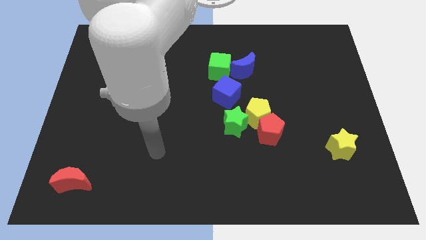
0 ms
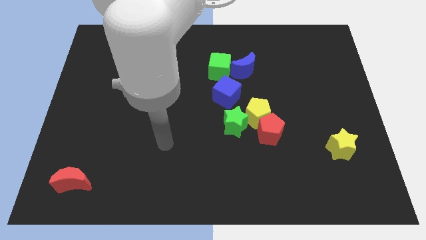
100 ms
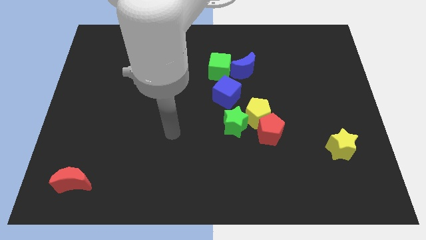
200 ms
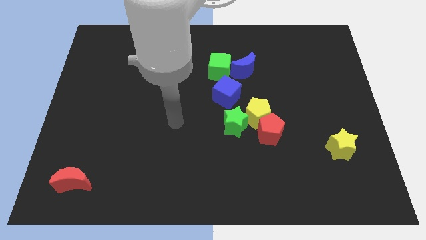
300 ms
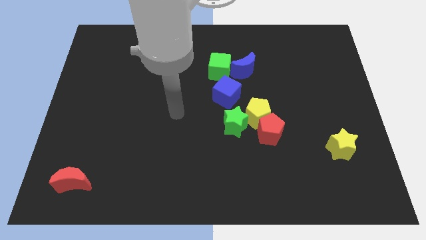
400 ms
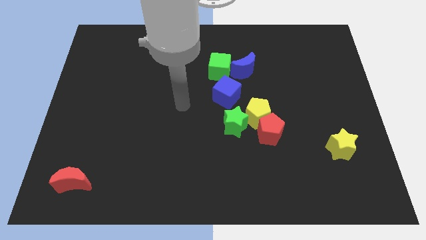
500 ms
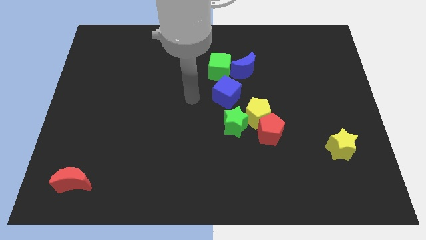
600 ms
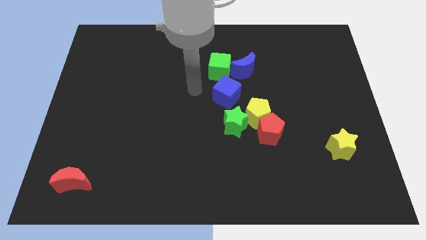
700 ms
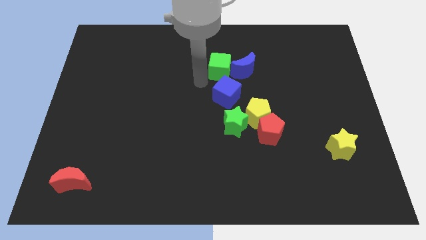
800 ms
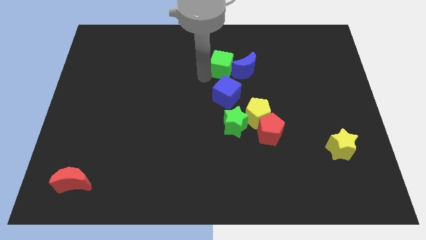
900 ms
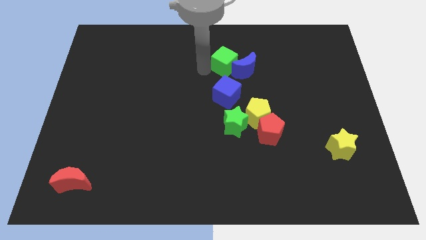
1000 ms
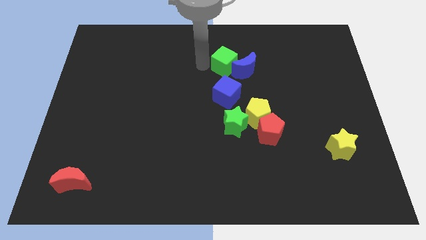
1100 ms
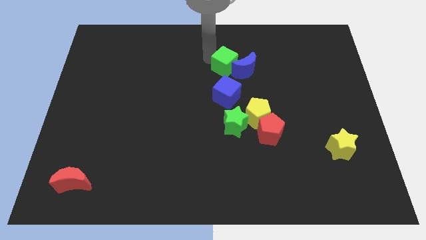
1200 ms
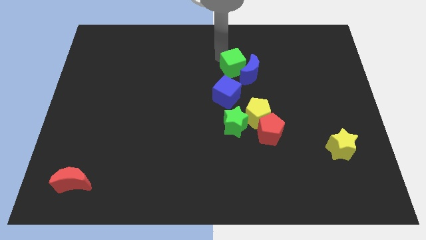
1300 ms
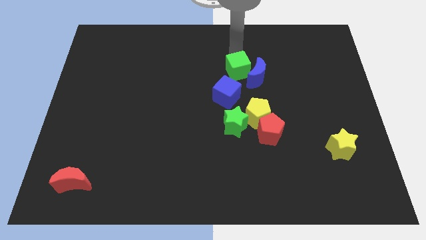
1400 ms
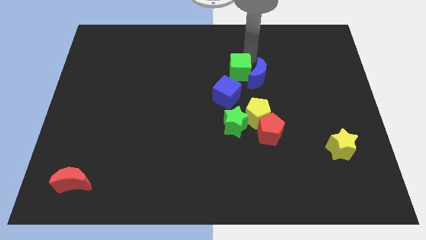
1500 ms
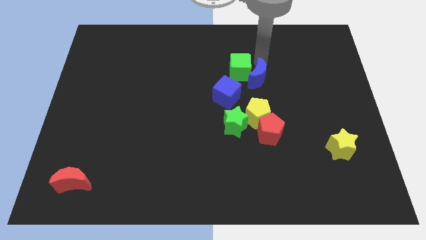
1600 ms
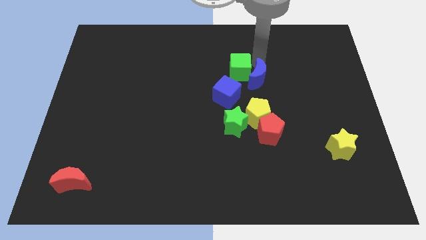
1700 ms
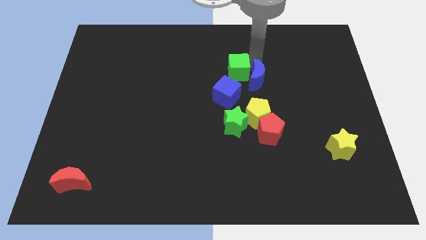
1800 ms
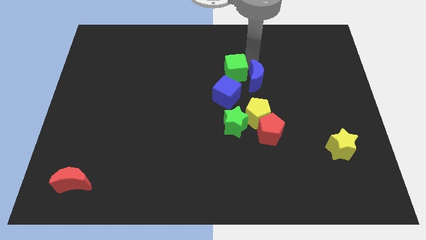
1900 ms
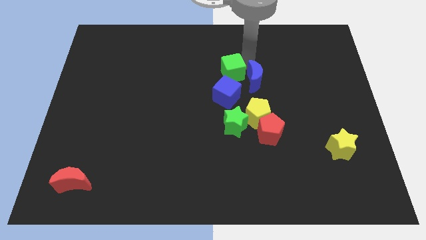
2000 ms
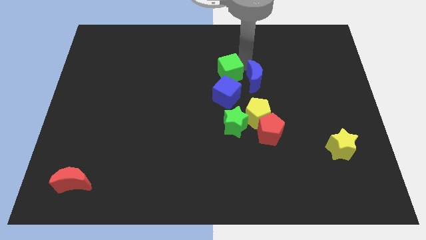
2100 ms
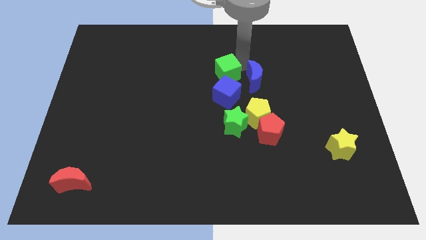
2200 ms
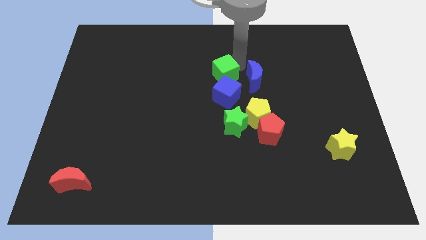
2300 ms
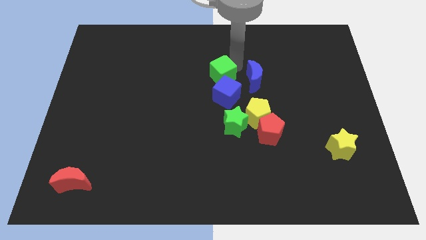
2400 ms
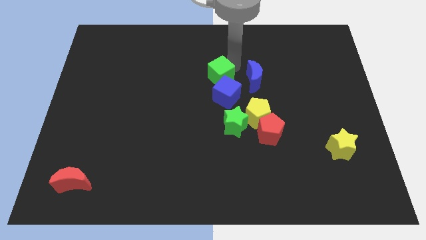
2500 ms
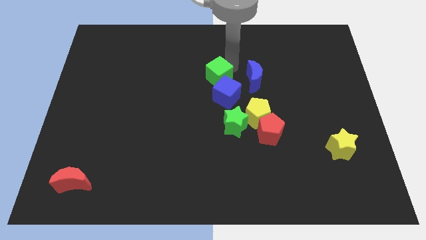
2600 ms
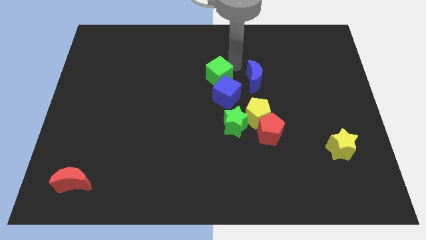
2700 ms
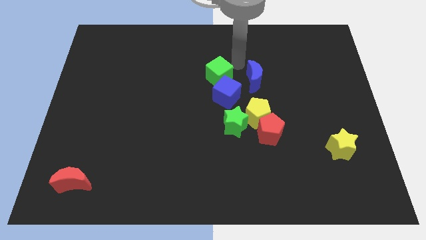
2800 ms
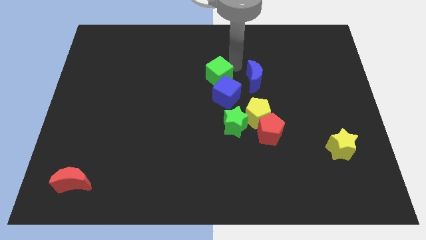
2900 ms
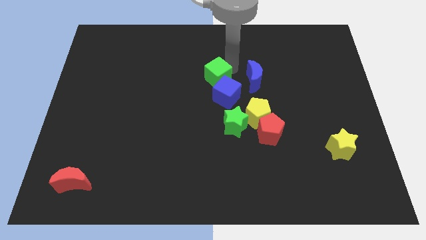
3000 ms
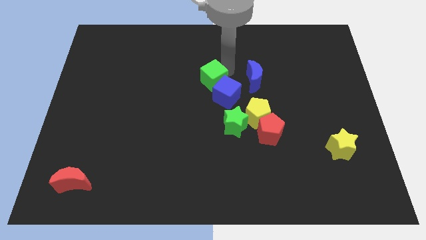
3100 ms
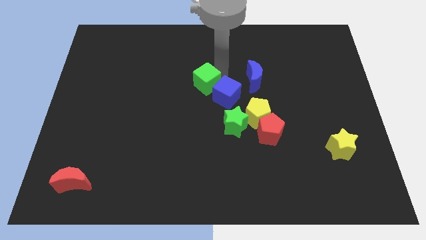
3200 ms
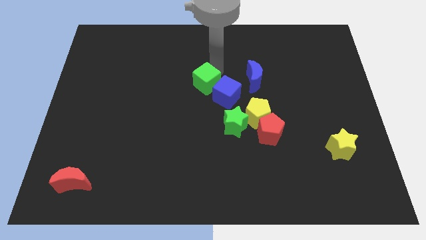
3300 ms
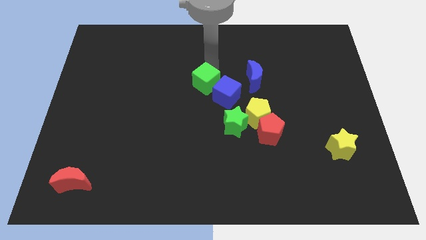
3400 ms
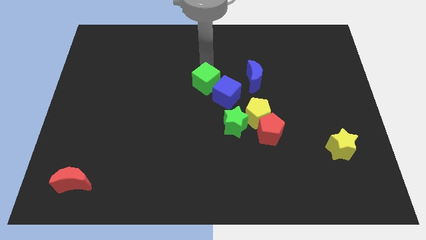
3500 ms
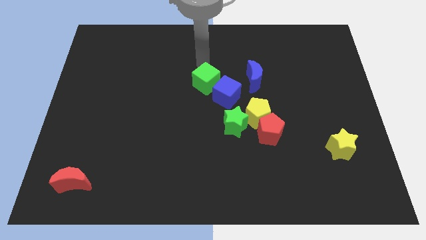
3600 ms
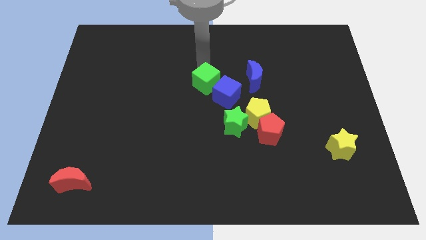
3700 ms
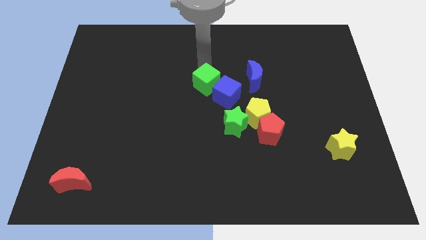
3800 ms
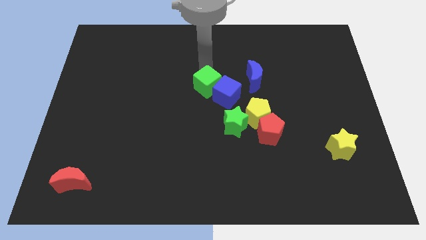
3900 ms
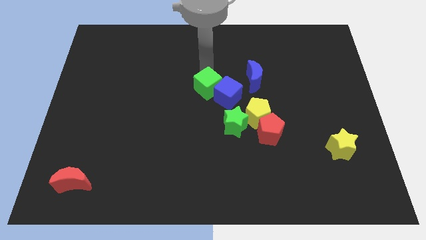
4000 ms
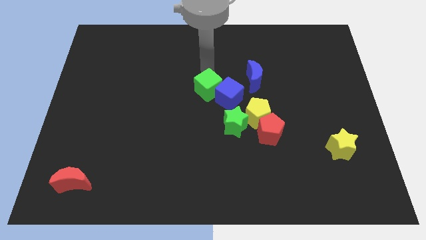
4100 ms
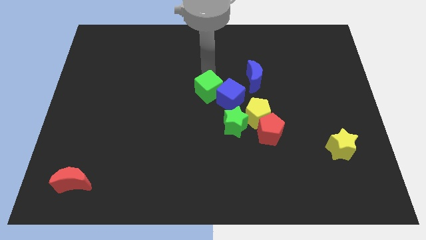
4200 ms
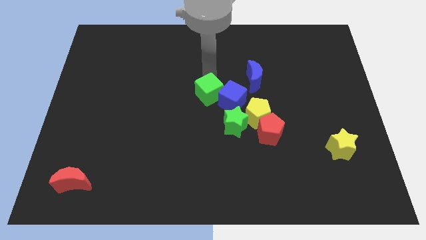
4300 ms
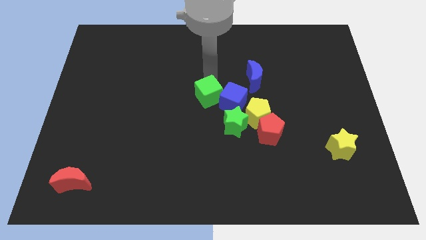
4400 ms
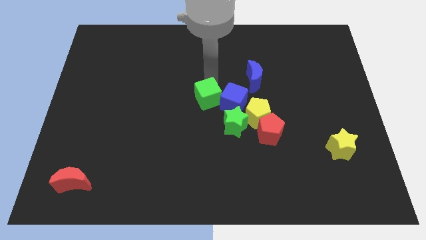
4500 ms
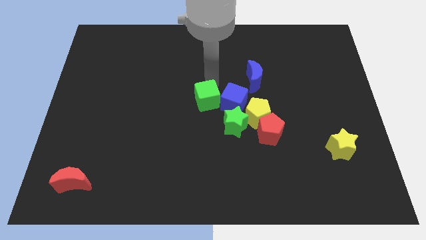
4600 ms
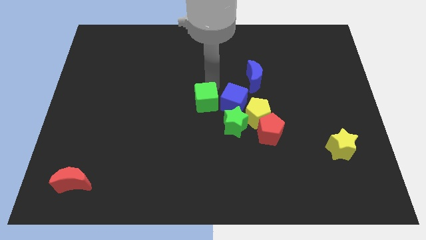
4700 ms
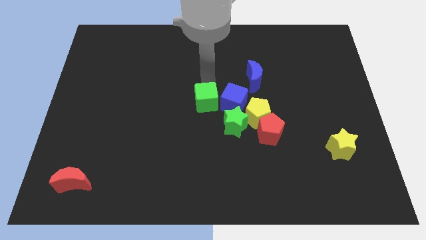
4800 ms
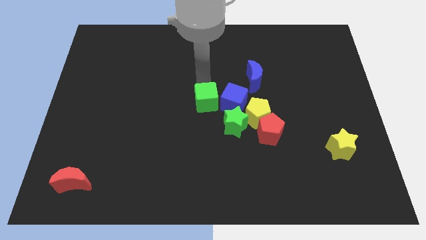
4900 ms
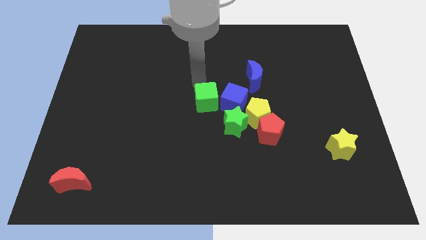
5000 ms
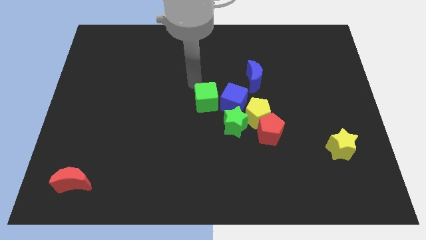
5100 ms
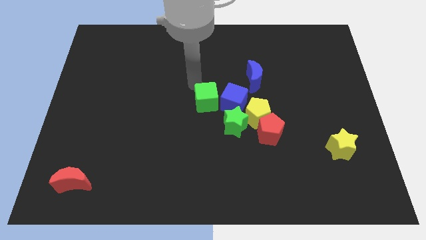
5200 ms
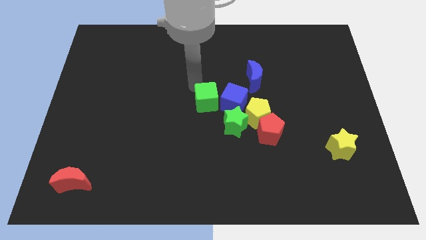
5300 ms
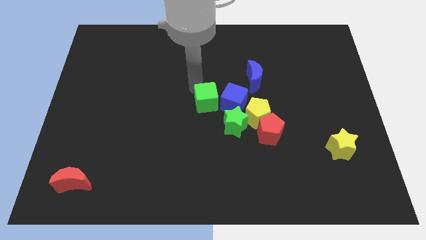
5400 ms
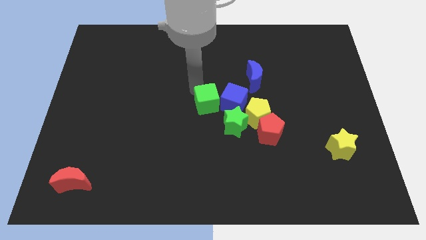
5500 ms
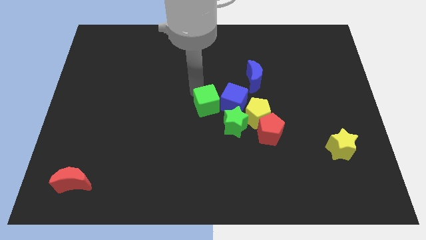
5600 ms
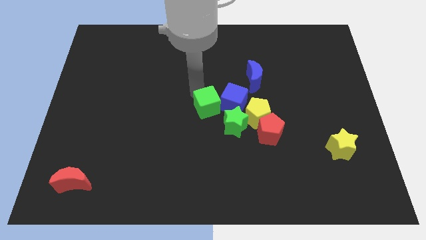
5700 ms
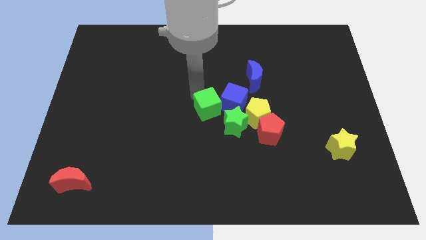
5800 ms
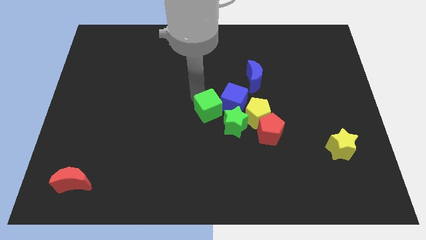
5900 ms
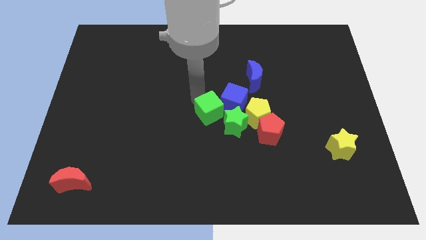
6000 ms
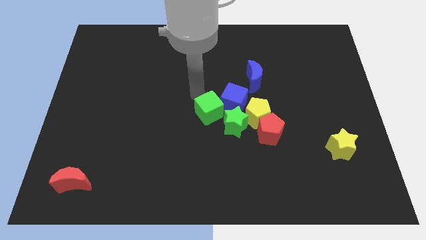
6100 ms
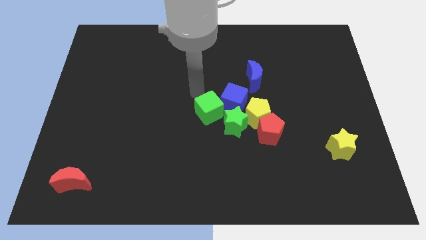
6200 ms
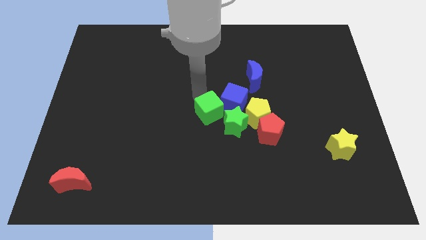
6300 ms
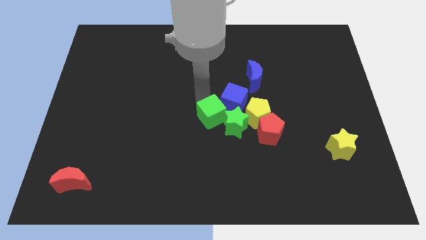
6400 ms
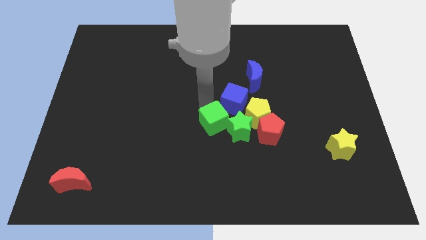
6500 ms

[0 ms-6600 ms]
put the green cube to the left side of the red pentagon
